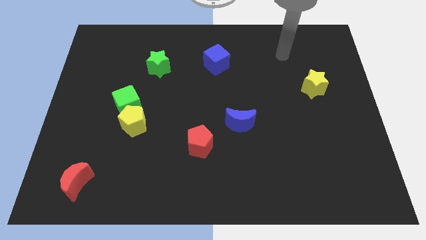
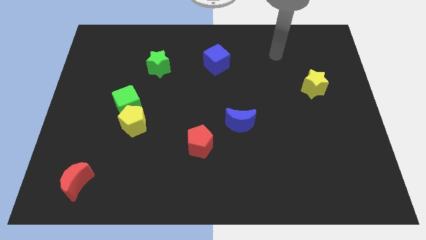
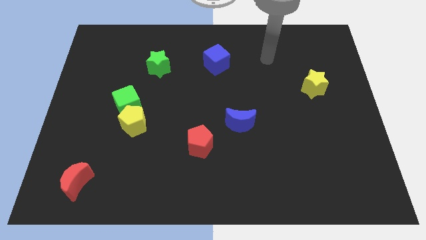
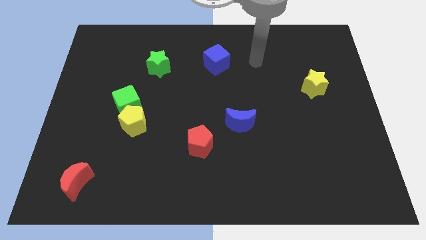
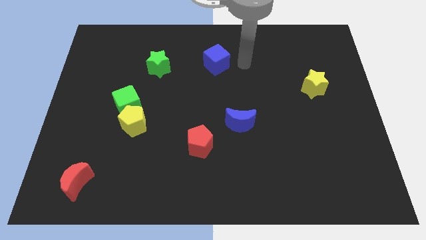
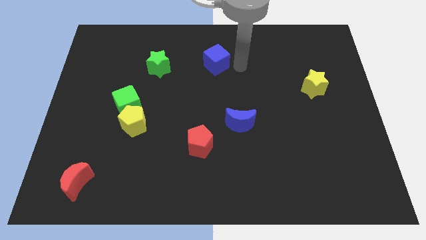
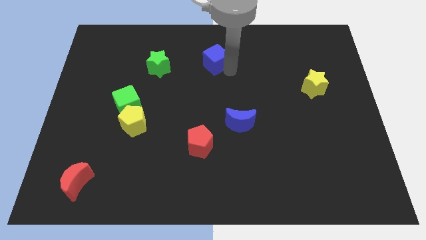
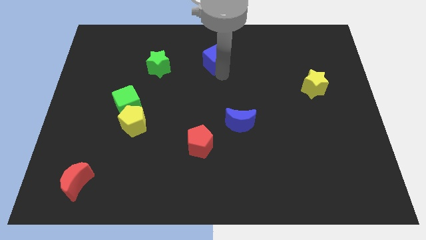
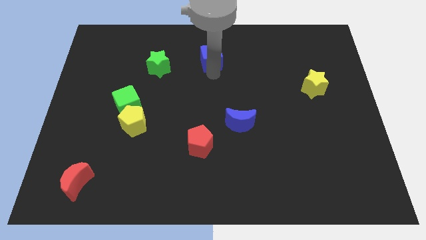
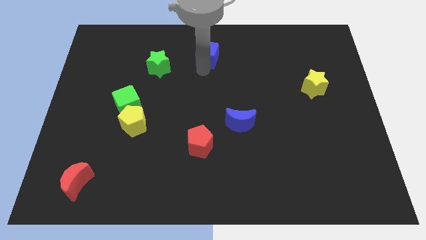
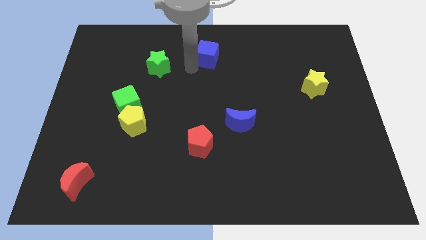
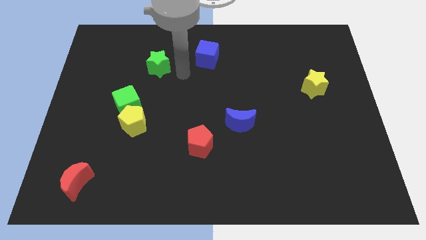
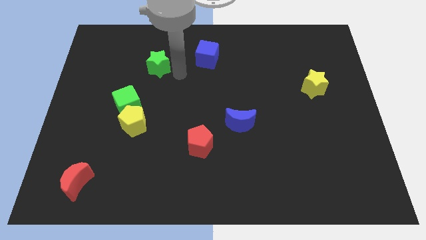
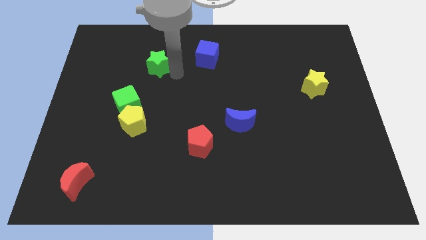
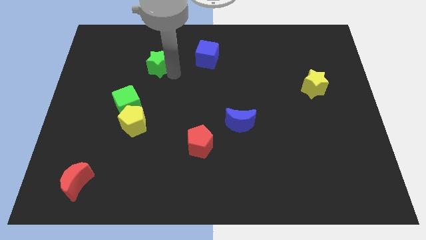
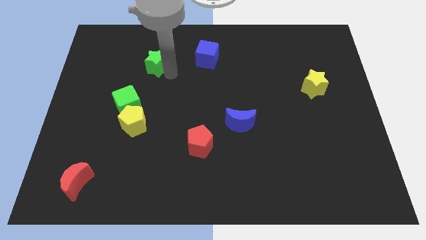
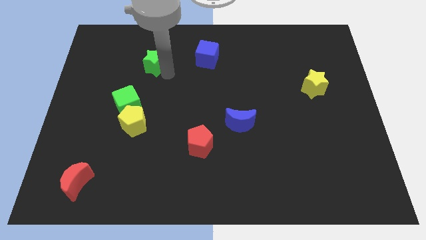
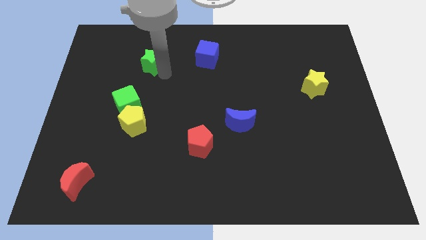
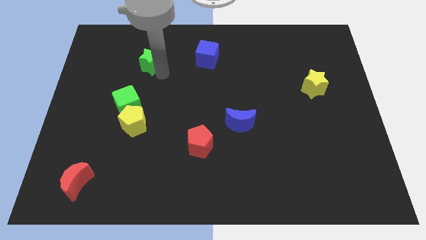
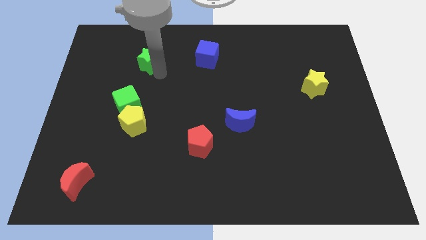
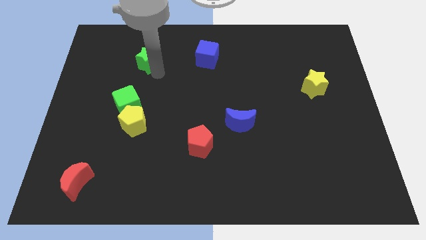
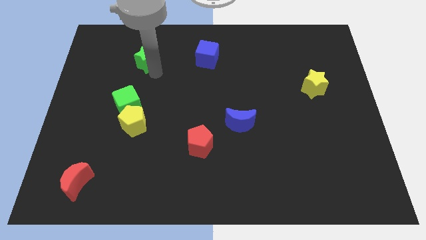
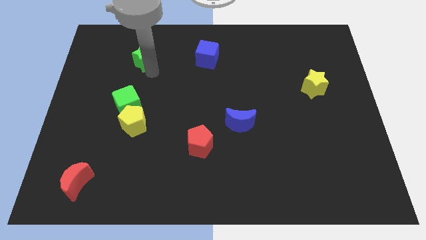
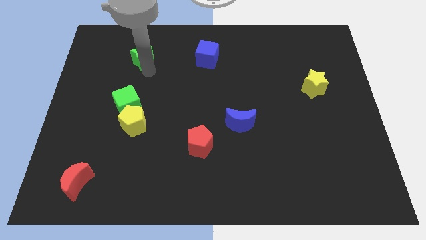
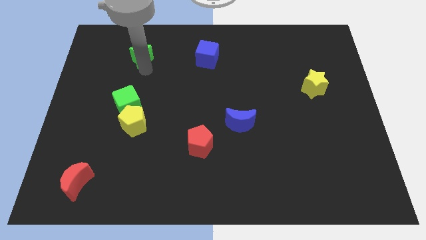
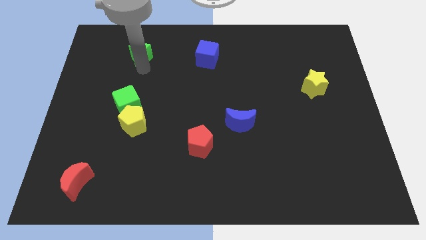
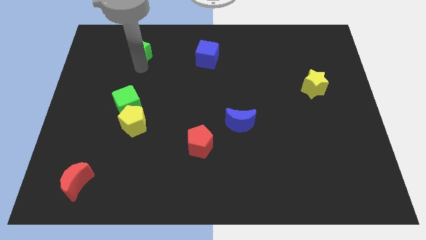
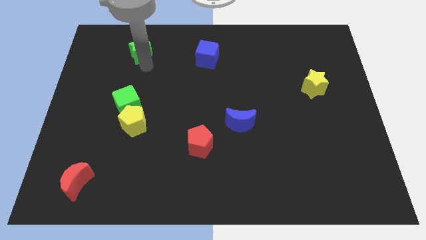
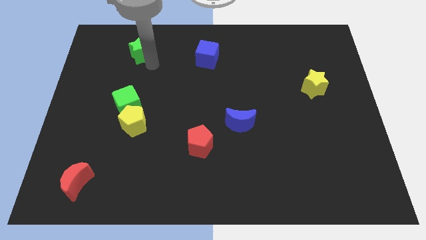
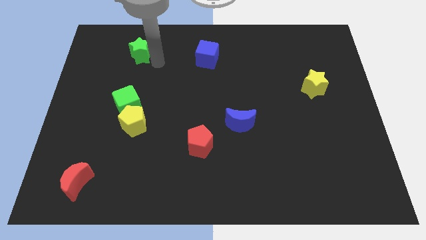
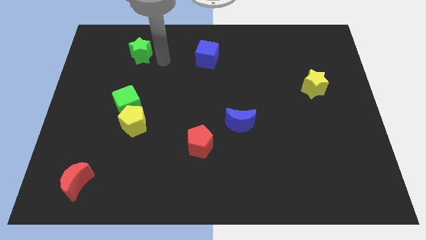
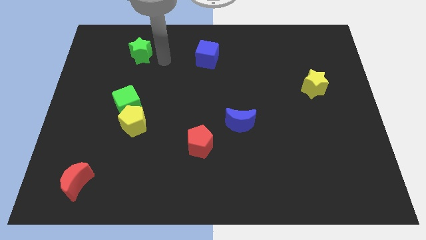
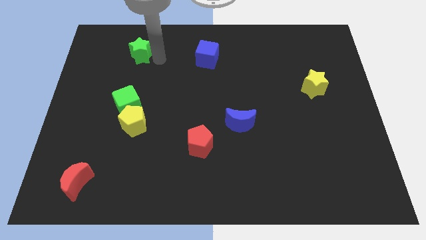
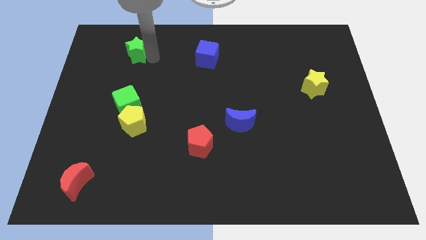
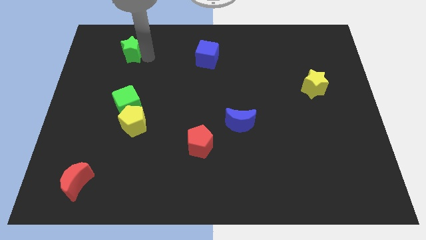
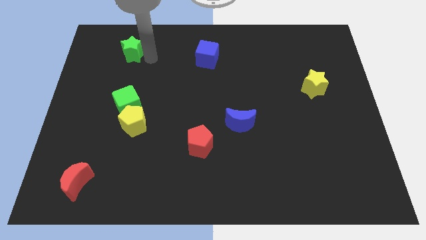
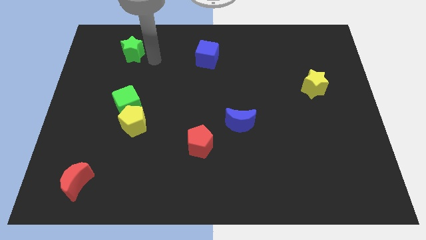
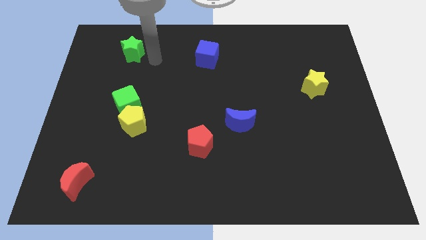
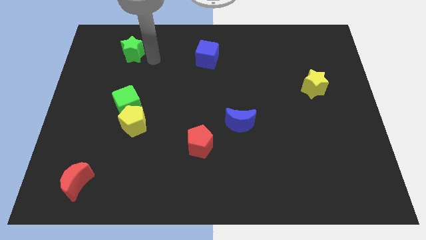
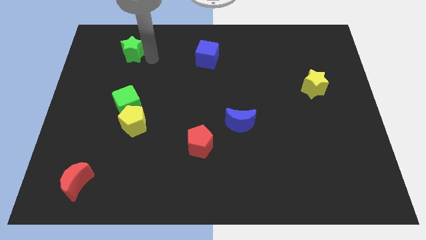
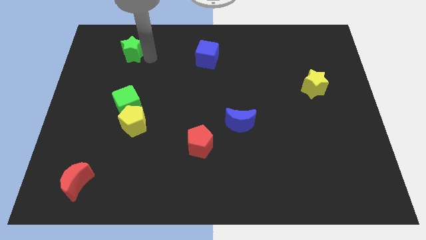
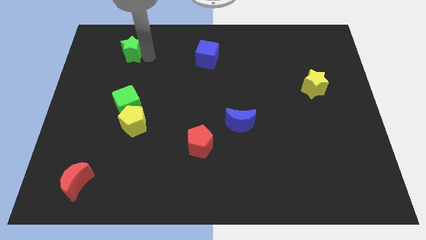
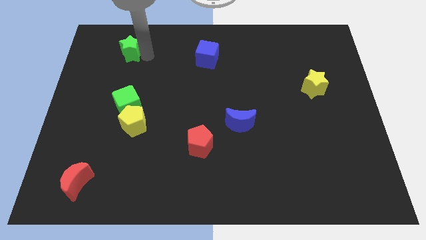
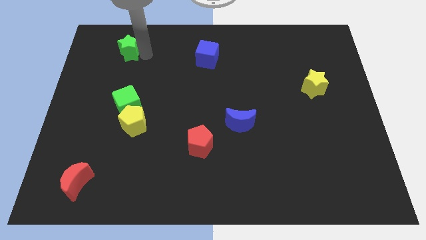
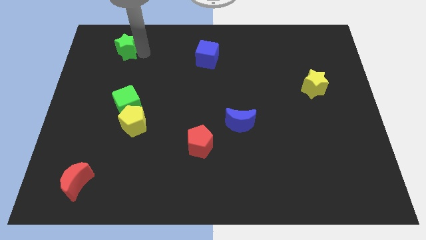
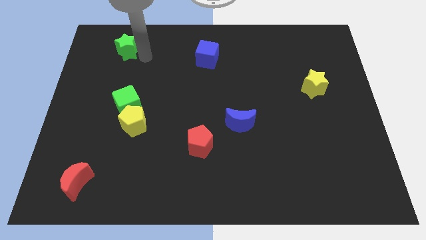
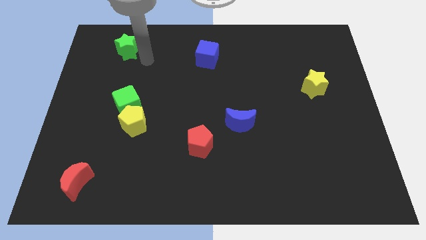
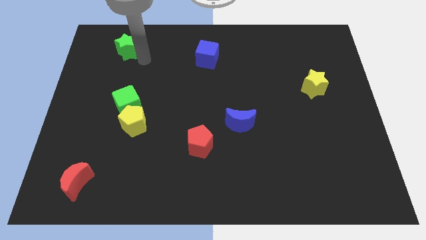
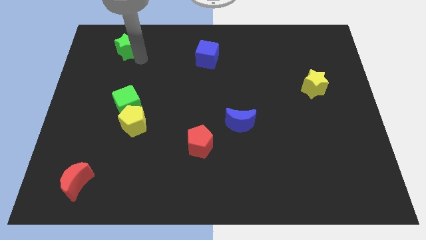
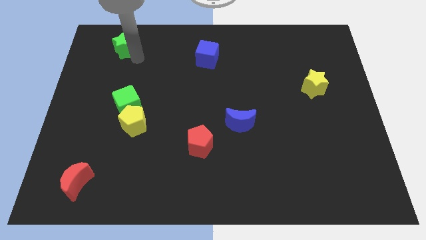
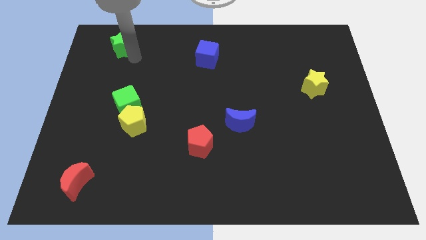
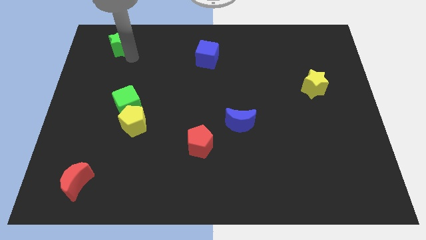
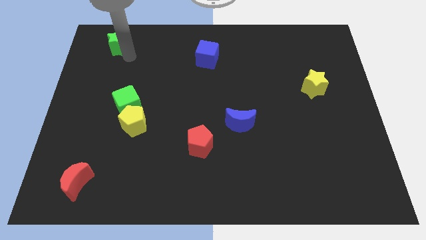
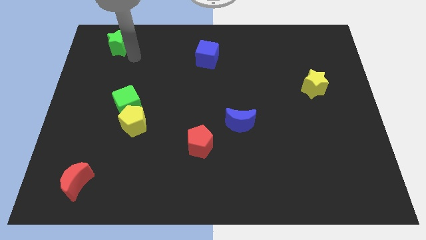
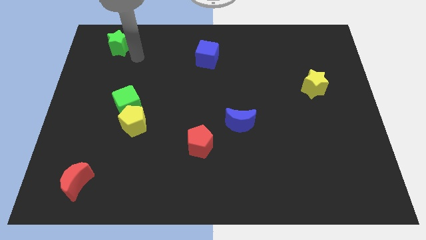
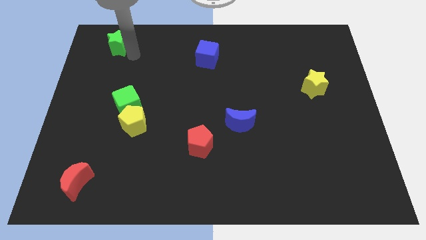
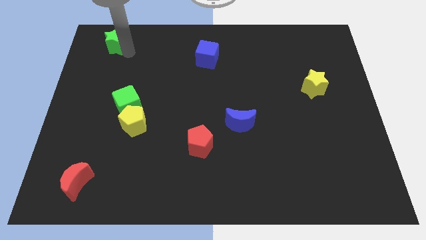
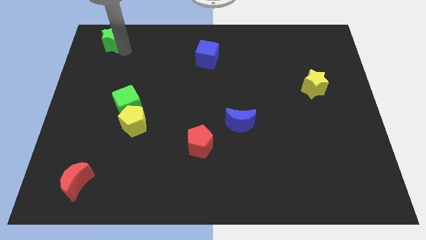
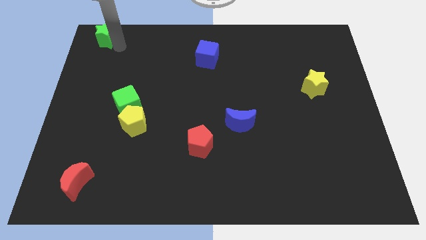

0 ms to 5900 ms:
move the green star to the top left of the board

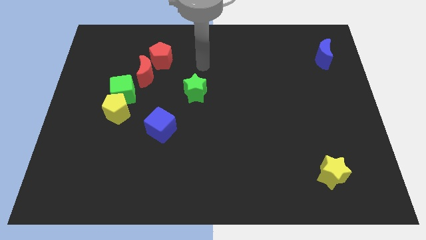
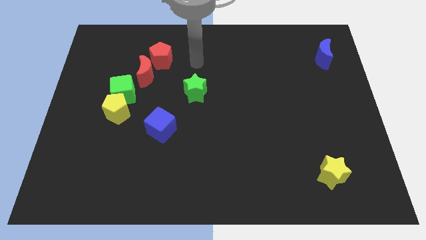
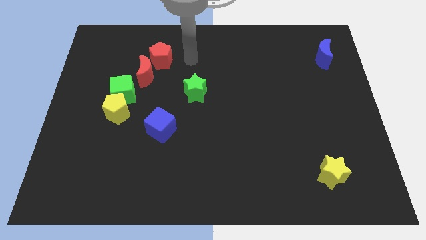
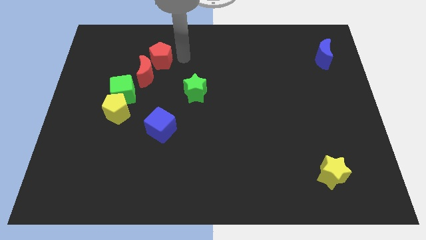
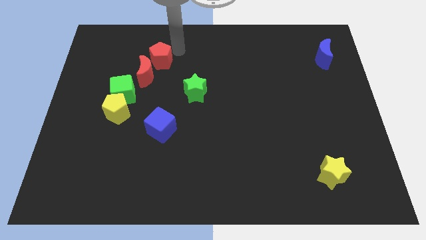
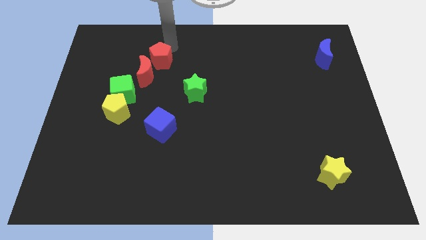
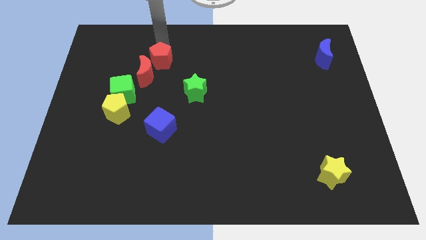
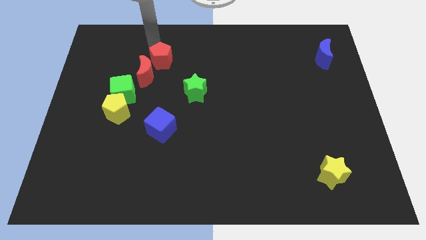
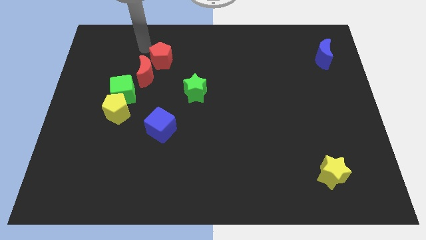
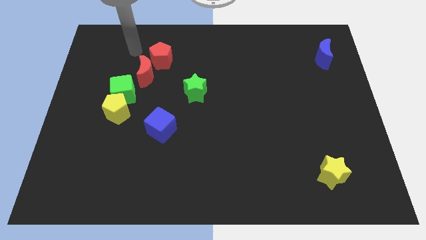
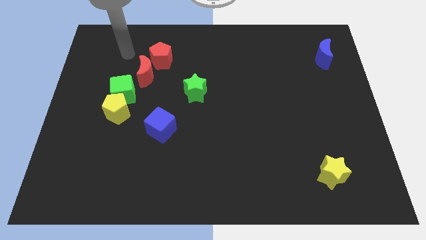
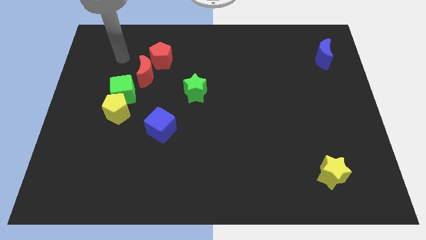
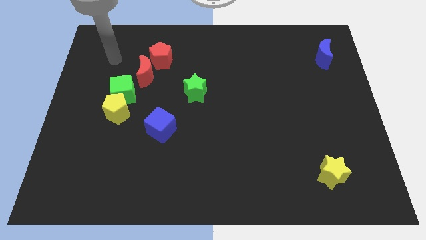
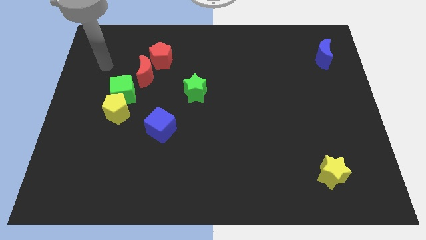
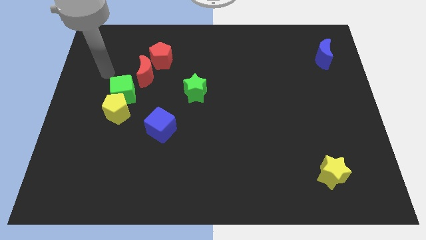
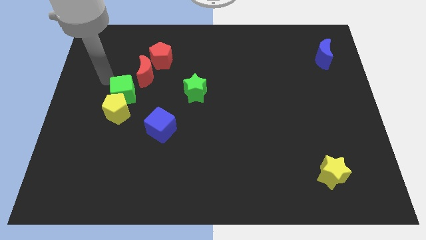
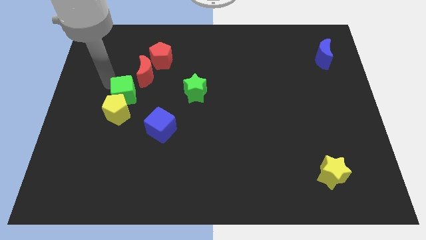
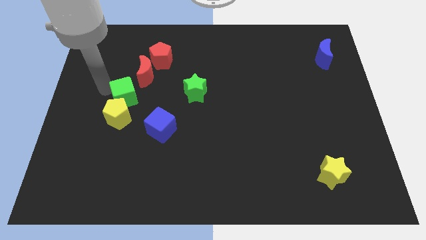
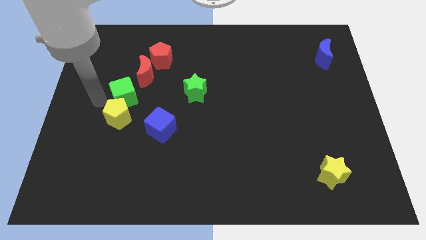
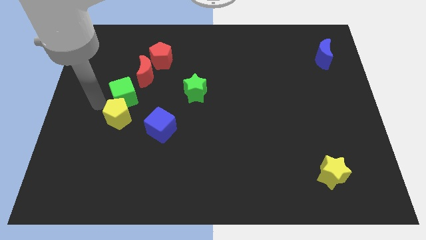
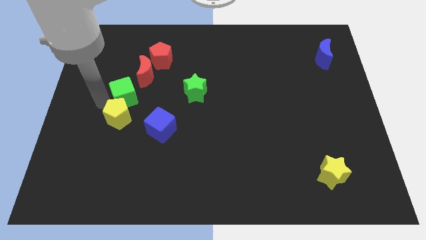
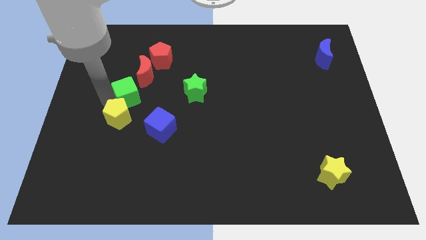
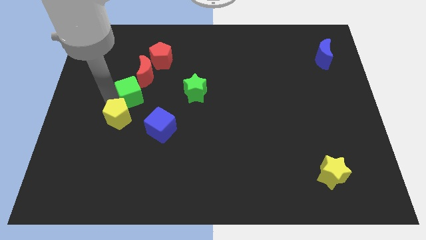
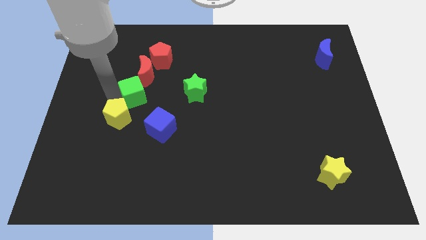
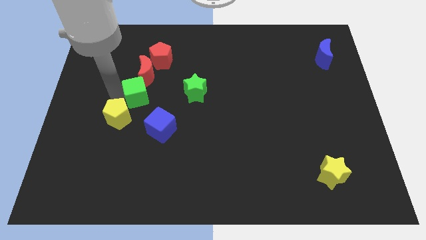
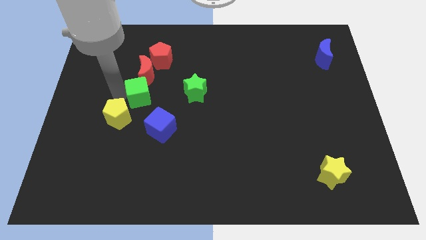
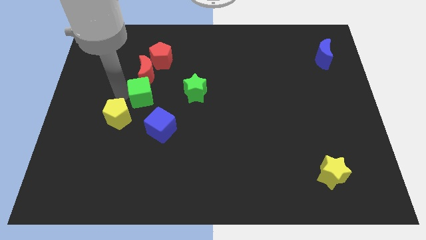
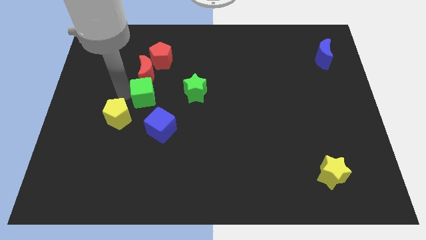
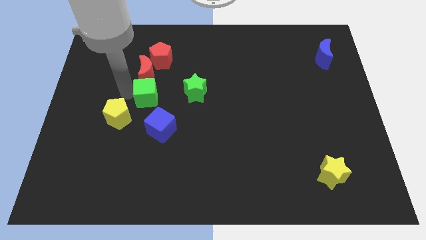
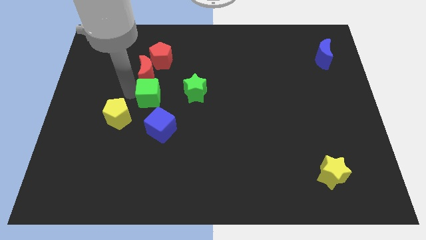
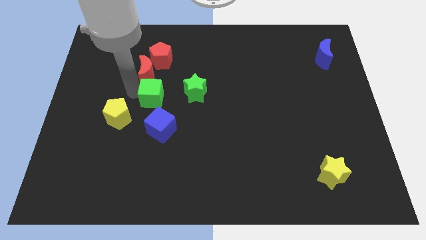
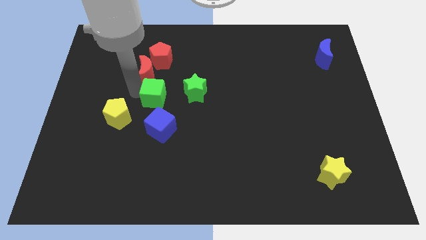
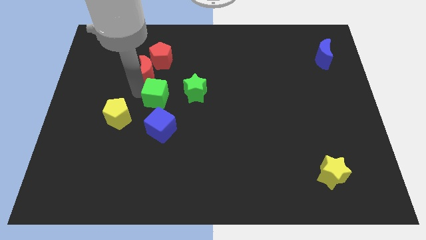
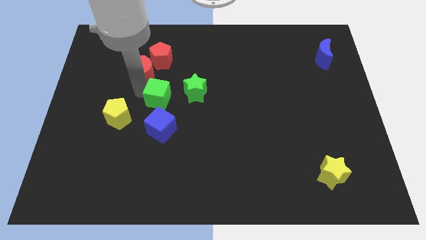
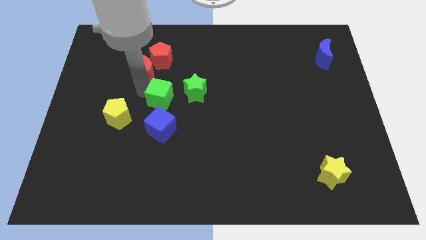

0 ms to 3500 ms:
move the green cube to the center
